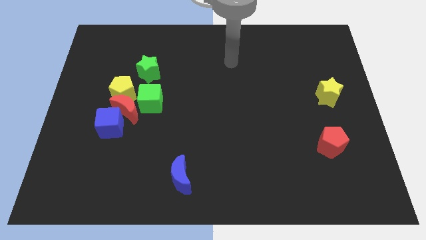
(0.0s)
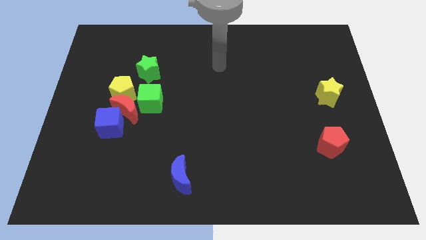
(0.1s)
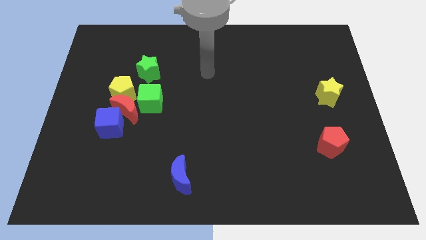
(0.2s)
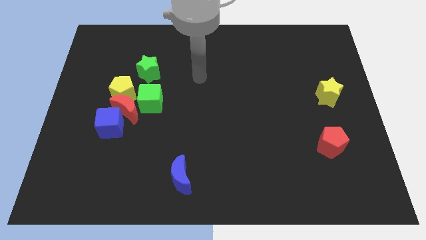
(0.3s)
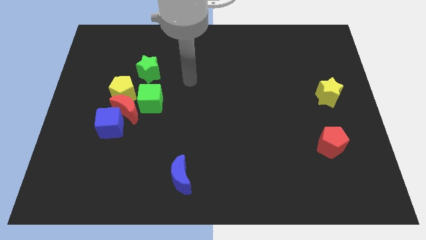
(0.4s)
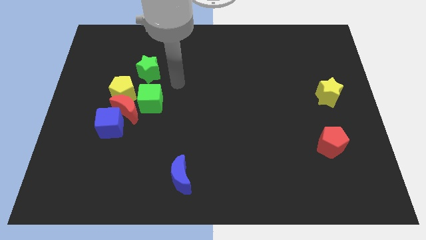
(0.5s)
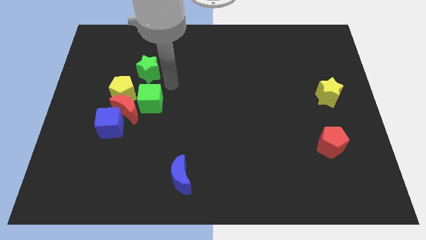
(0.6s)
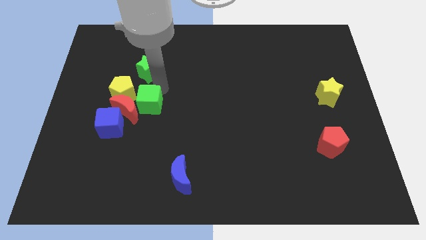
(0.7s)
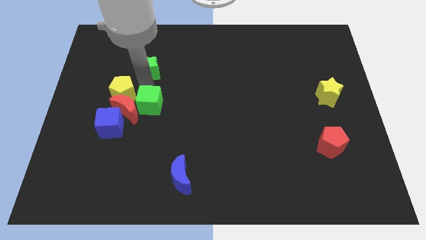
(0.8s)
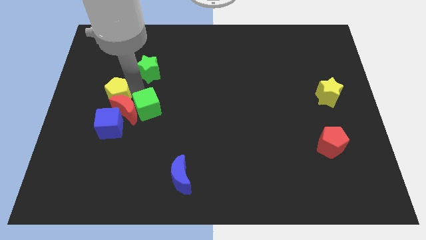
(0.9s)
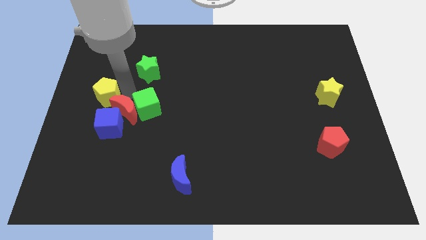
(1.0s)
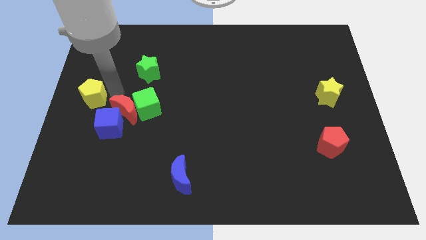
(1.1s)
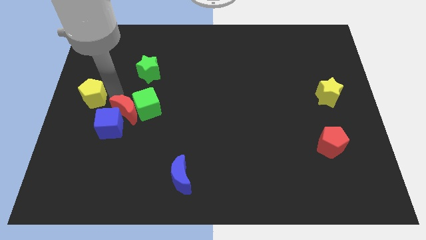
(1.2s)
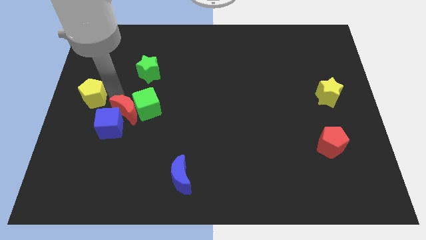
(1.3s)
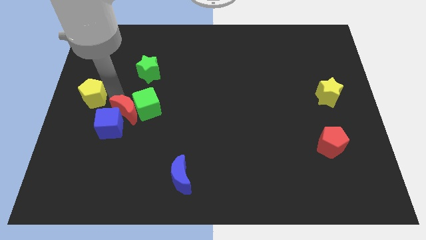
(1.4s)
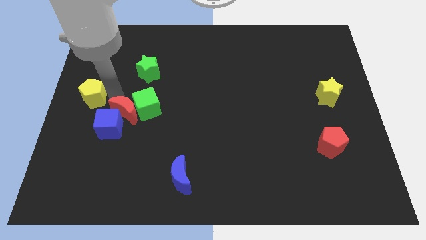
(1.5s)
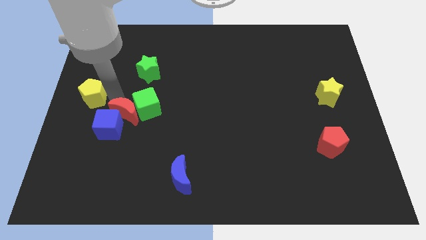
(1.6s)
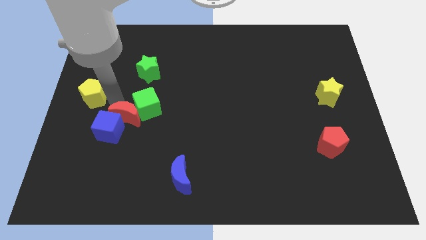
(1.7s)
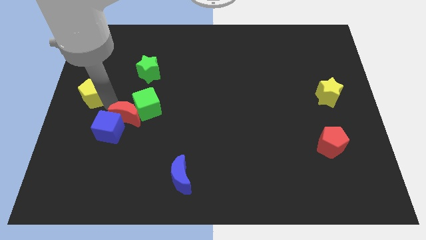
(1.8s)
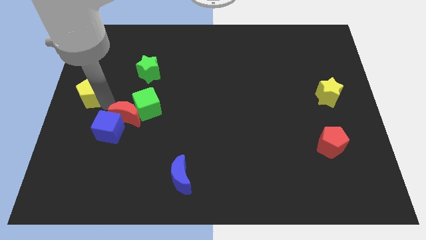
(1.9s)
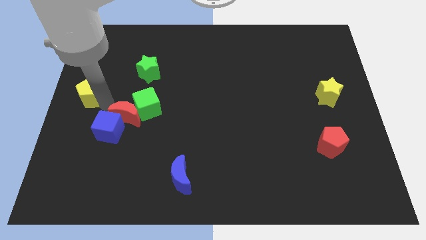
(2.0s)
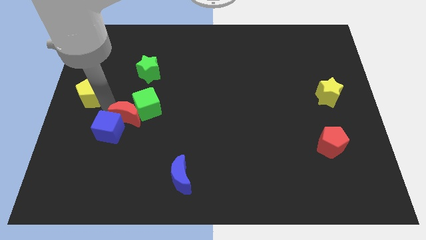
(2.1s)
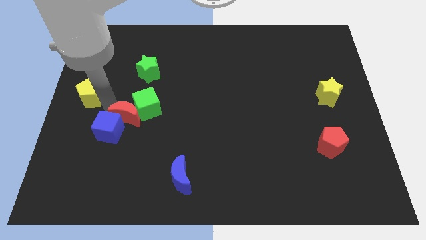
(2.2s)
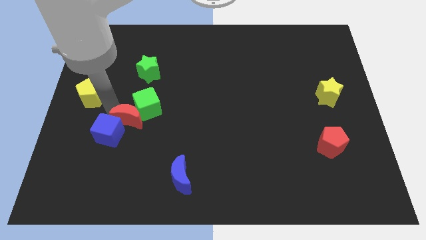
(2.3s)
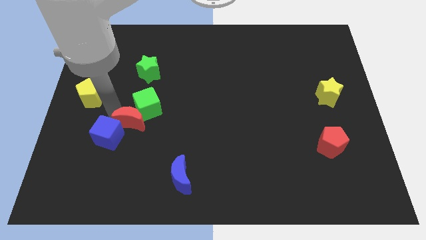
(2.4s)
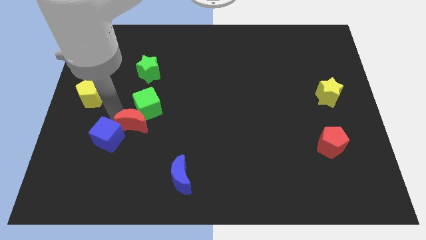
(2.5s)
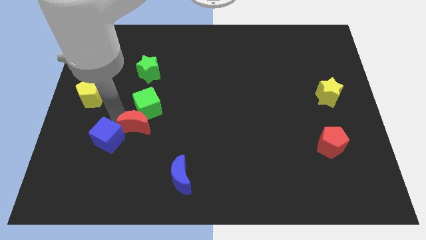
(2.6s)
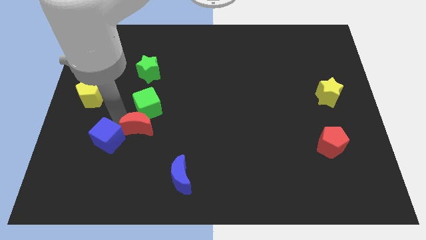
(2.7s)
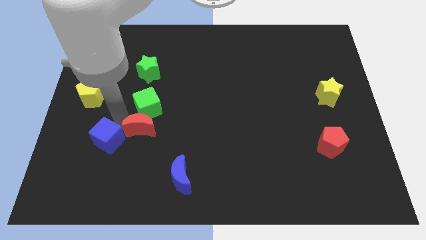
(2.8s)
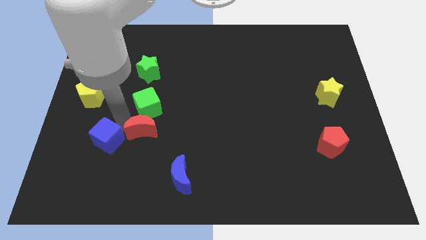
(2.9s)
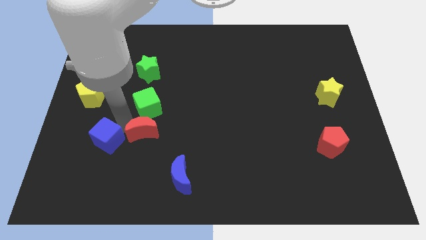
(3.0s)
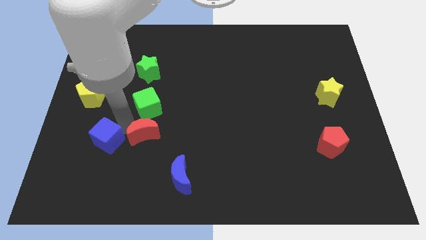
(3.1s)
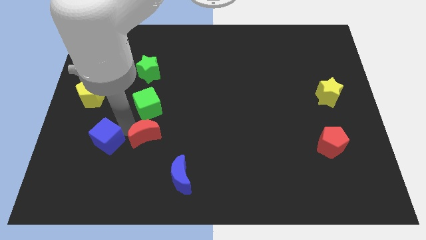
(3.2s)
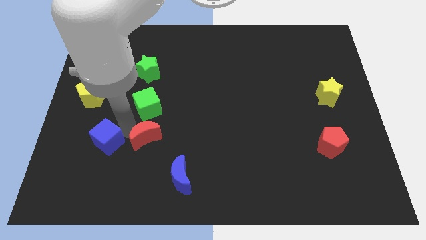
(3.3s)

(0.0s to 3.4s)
pull the red moon apart from the group

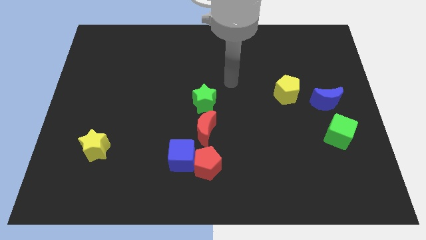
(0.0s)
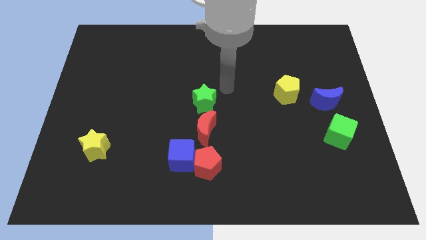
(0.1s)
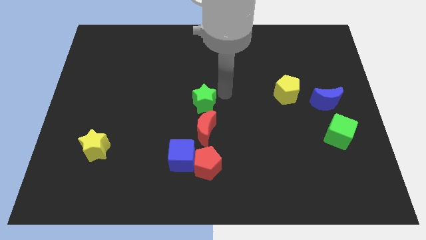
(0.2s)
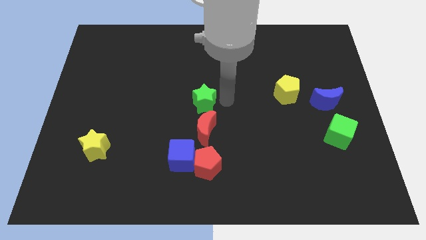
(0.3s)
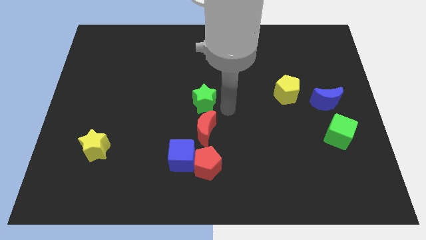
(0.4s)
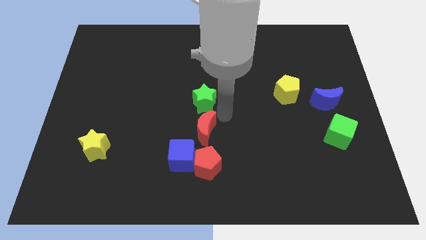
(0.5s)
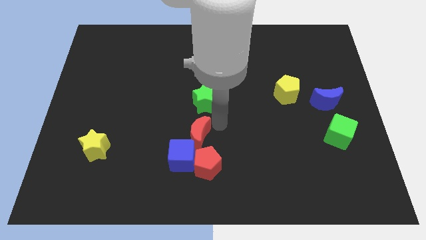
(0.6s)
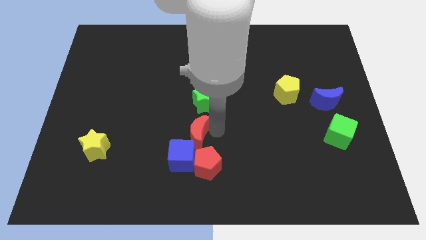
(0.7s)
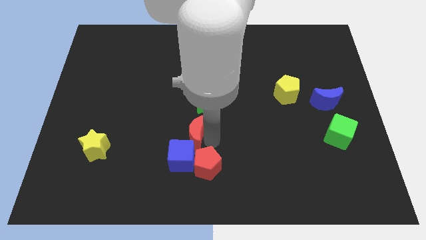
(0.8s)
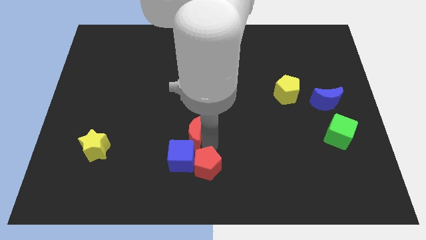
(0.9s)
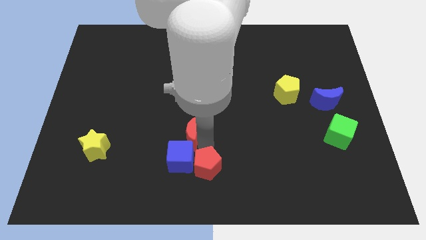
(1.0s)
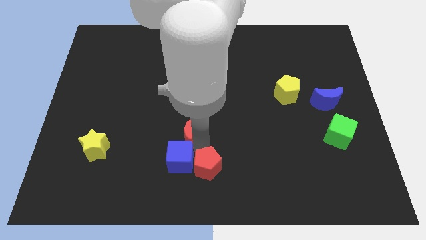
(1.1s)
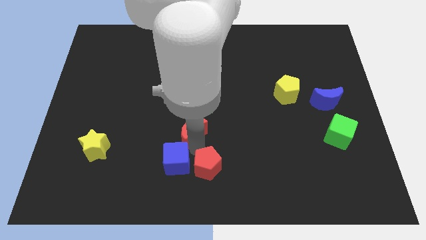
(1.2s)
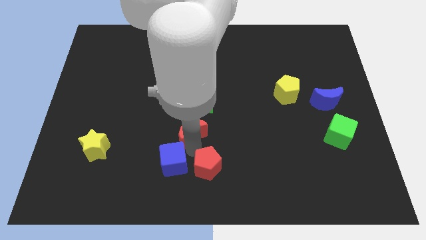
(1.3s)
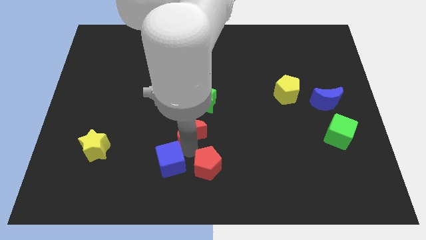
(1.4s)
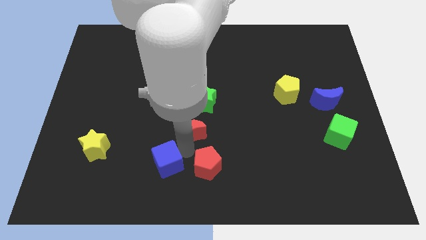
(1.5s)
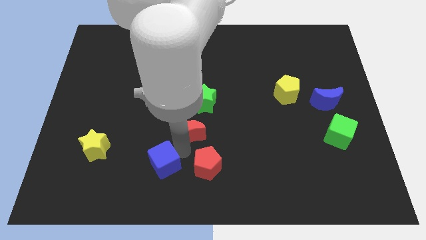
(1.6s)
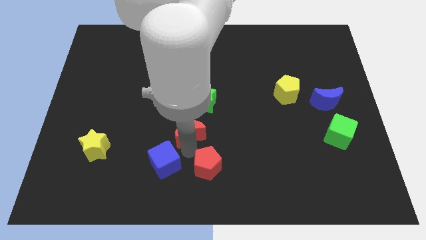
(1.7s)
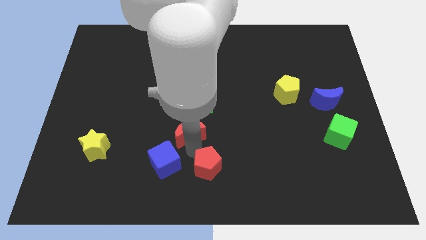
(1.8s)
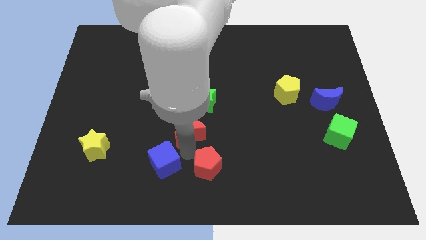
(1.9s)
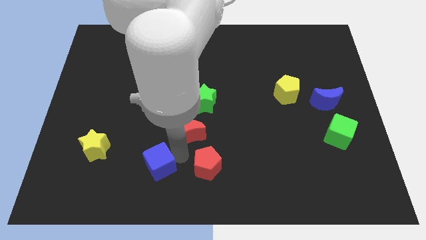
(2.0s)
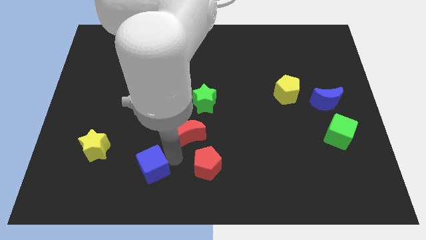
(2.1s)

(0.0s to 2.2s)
pull the blue cube apart from the red pentagon and red moon

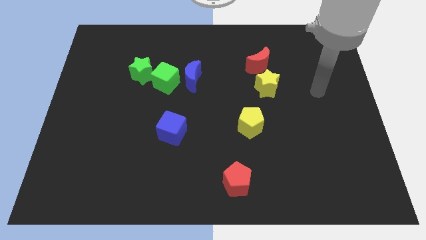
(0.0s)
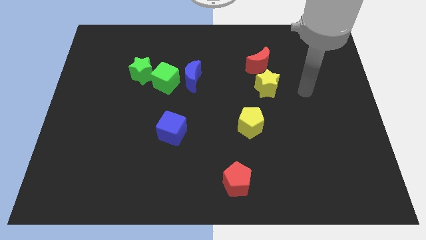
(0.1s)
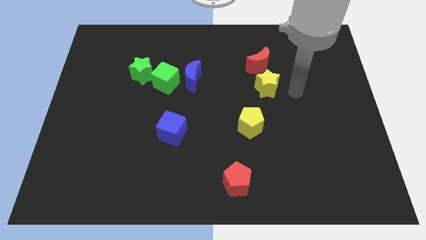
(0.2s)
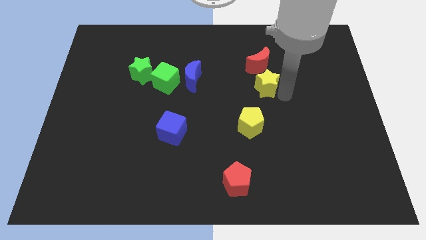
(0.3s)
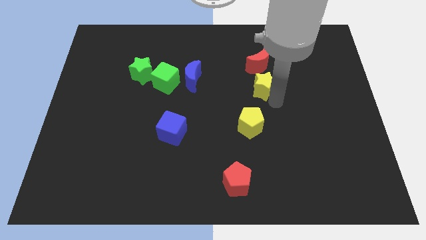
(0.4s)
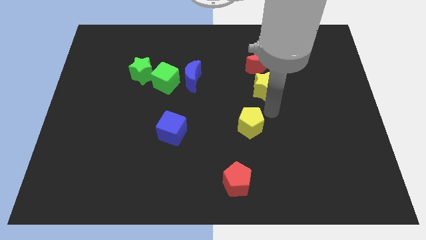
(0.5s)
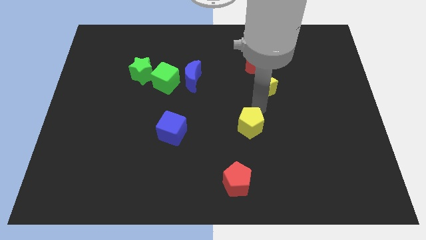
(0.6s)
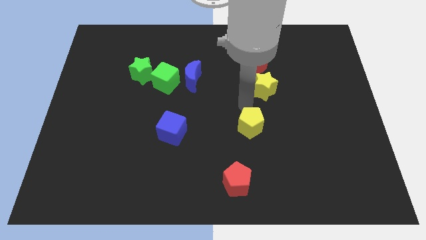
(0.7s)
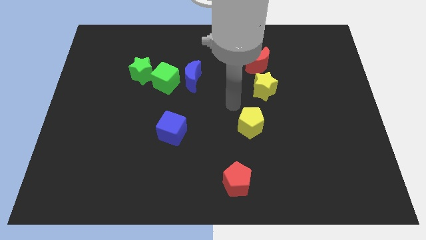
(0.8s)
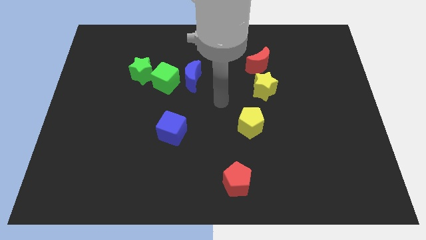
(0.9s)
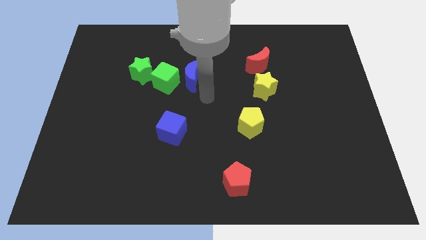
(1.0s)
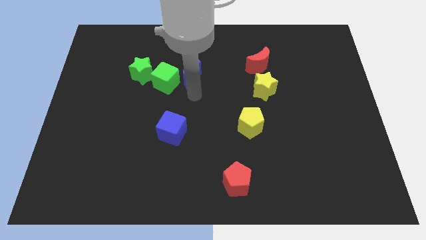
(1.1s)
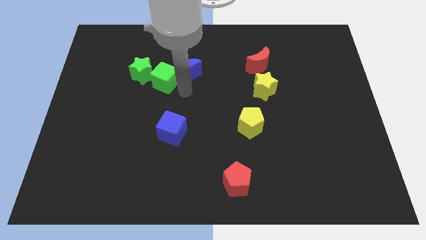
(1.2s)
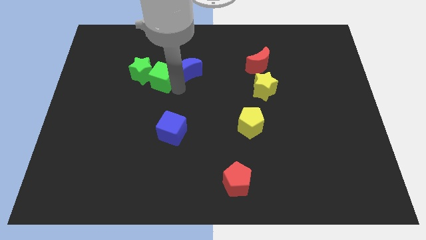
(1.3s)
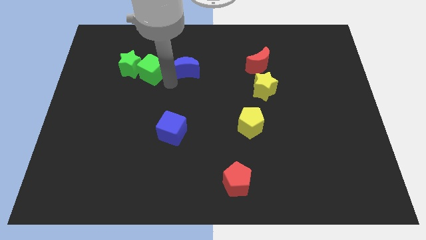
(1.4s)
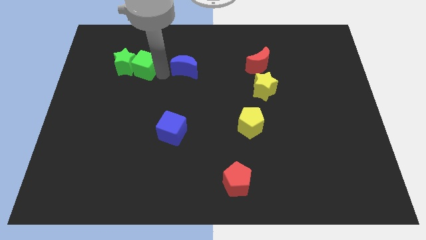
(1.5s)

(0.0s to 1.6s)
separate the blue moon from the green cube

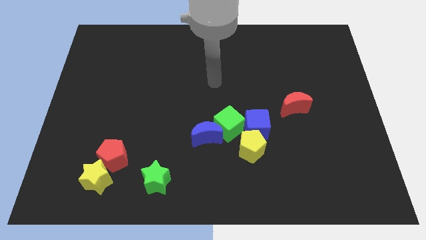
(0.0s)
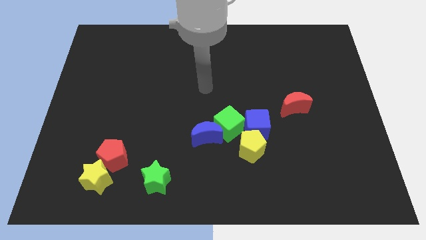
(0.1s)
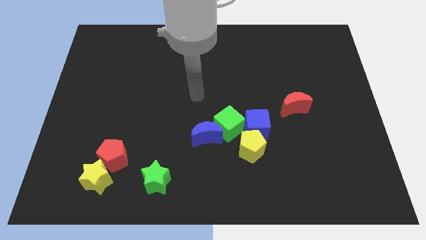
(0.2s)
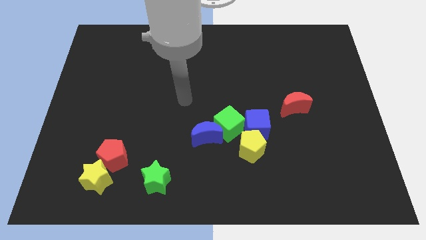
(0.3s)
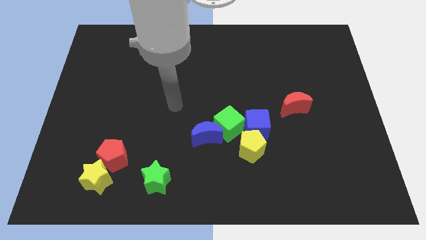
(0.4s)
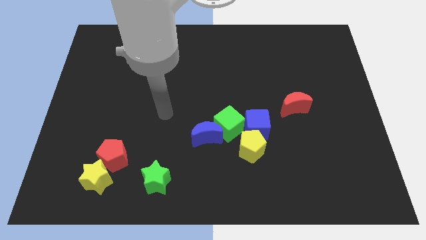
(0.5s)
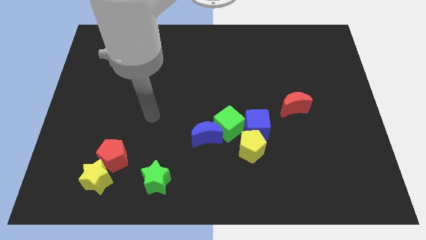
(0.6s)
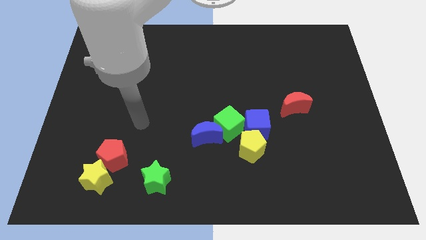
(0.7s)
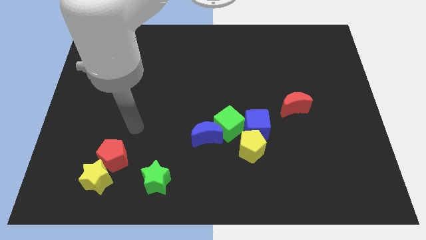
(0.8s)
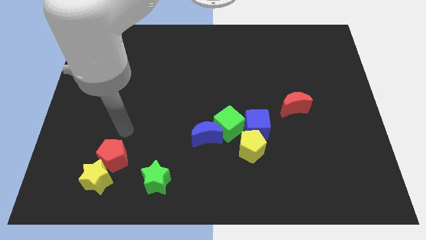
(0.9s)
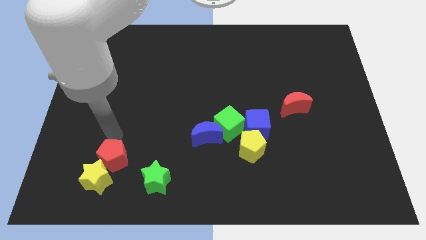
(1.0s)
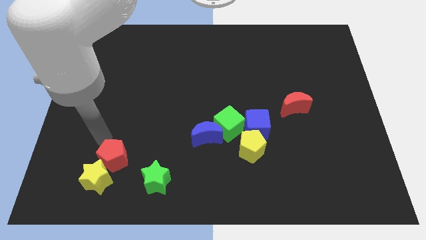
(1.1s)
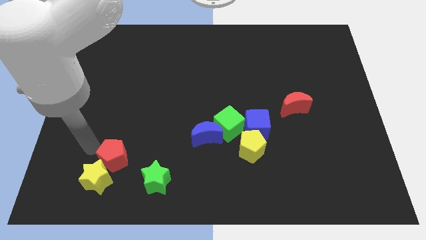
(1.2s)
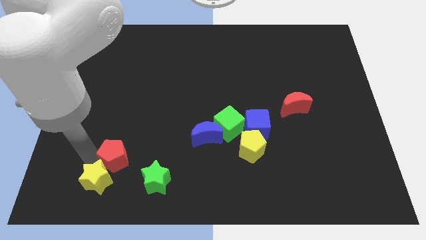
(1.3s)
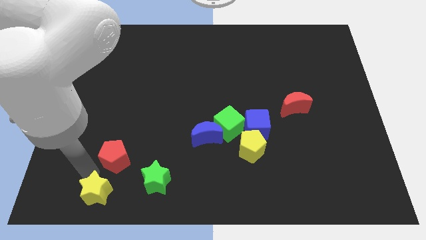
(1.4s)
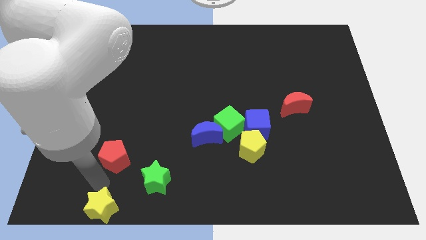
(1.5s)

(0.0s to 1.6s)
separate the red pentagon from the yellow star

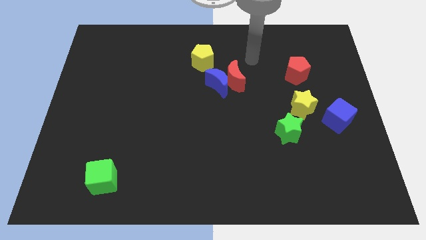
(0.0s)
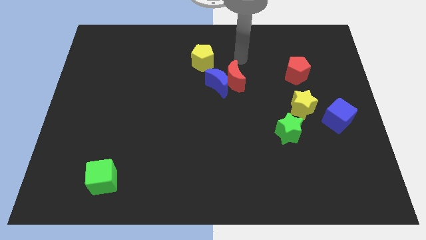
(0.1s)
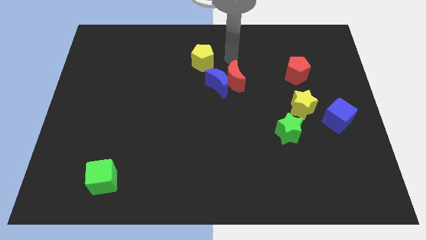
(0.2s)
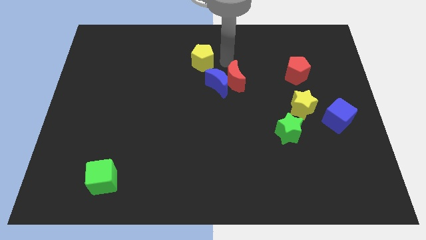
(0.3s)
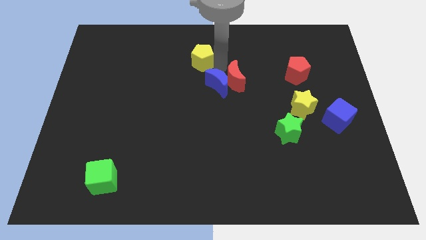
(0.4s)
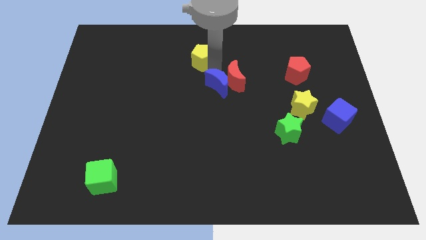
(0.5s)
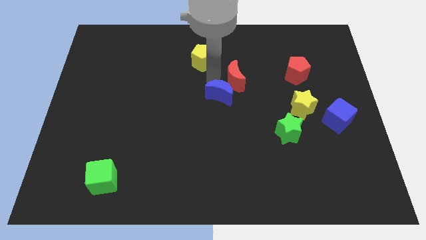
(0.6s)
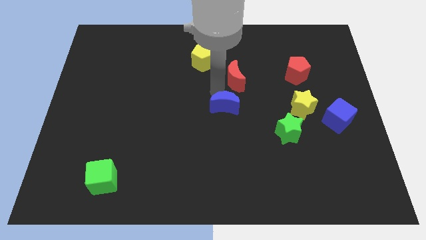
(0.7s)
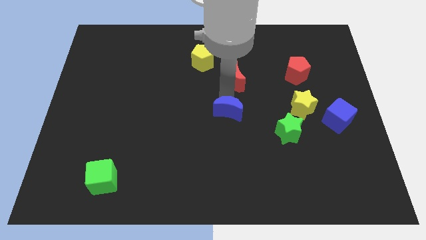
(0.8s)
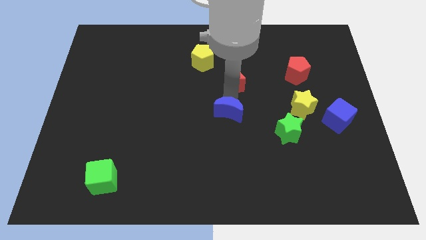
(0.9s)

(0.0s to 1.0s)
move the red moon away from the blue moon
